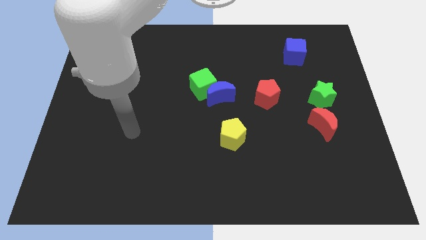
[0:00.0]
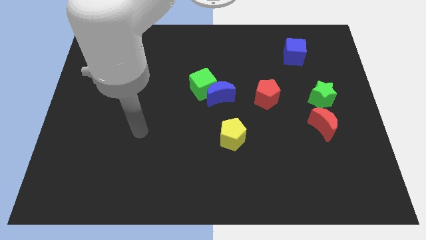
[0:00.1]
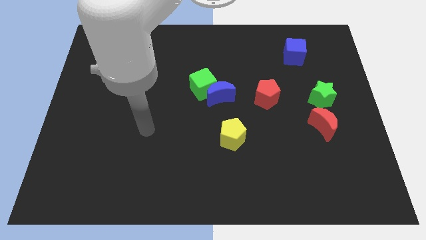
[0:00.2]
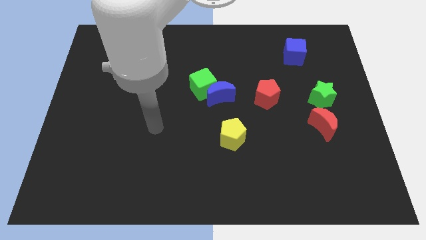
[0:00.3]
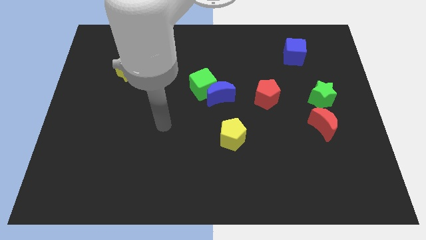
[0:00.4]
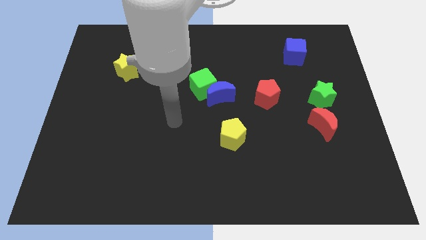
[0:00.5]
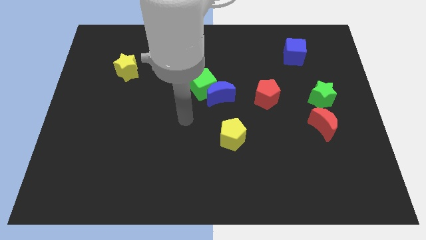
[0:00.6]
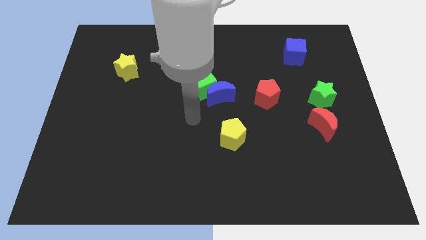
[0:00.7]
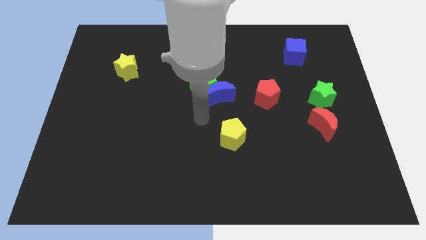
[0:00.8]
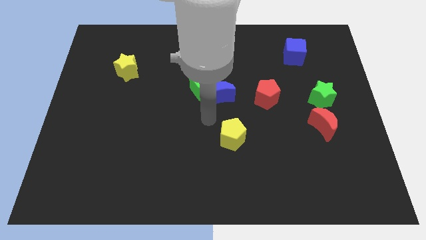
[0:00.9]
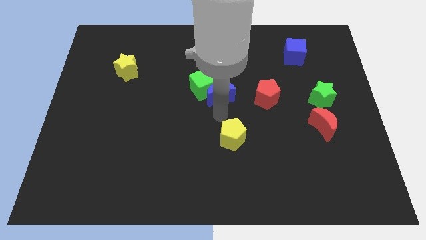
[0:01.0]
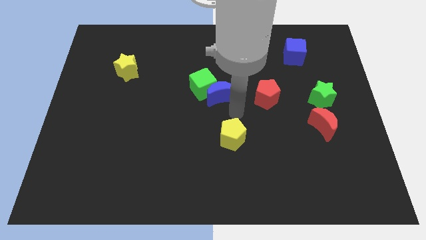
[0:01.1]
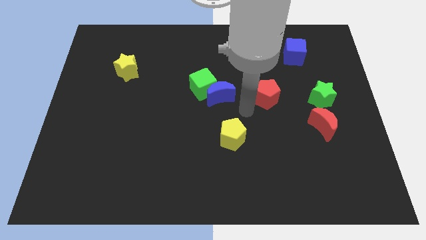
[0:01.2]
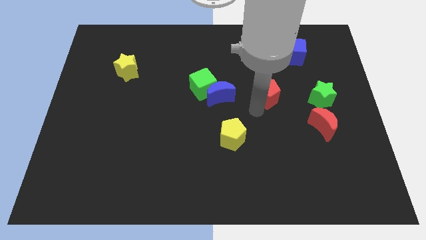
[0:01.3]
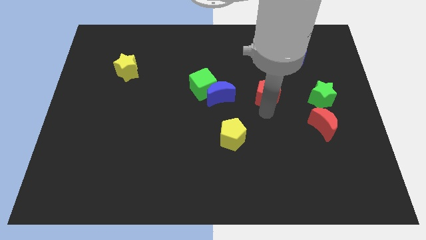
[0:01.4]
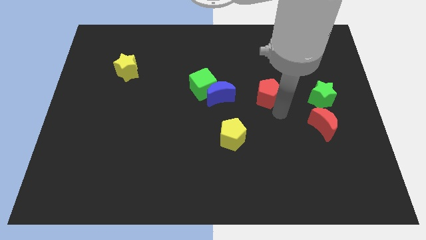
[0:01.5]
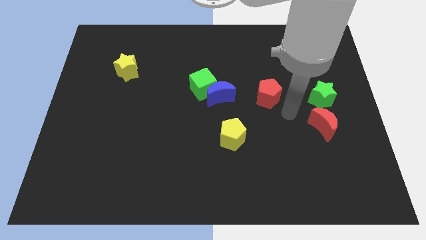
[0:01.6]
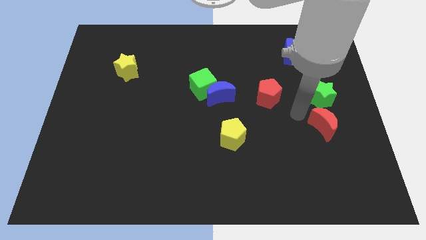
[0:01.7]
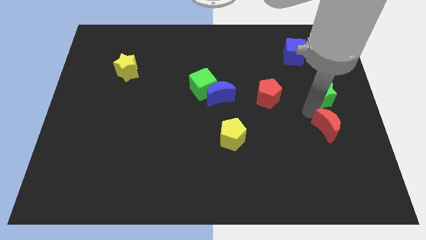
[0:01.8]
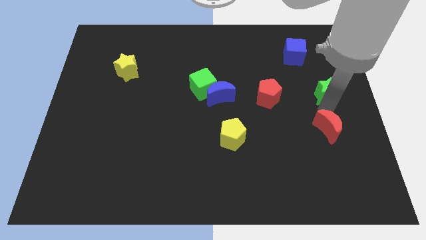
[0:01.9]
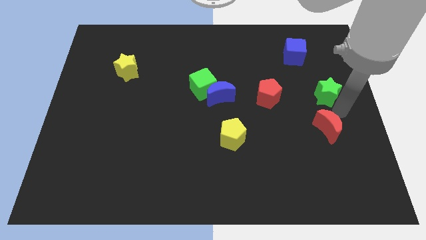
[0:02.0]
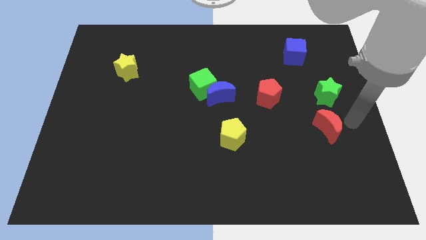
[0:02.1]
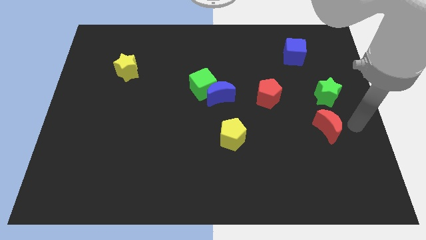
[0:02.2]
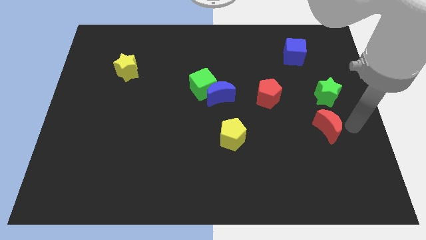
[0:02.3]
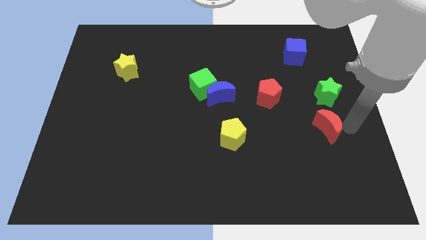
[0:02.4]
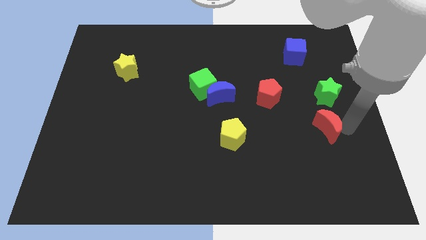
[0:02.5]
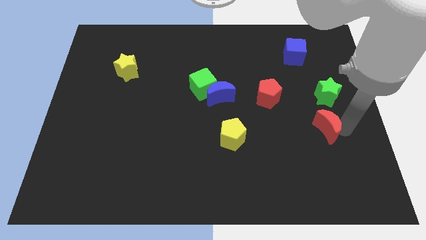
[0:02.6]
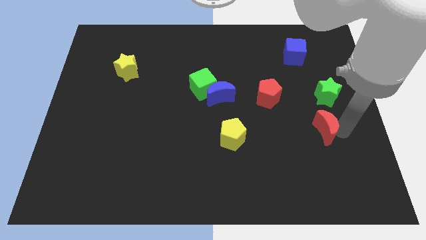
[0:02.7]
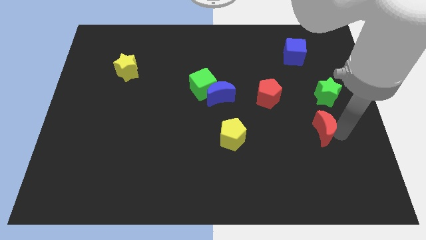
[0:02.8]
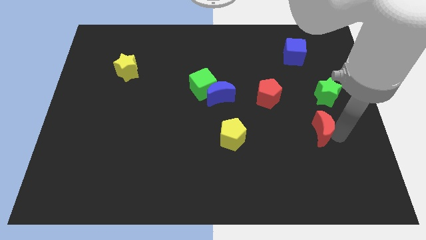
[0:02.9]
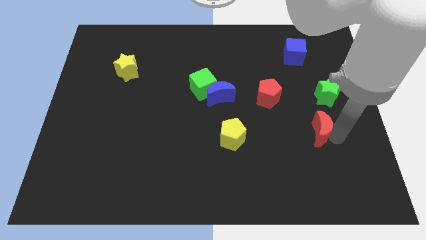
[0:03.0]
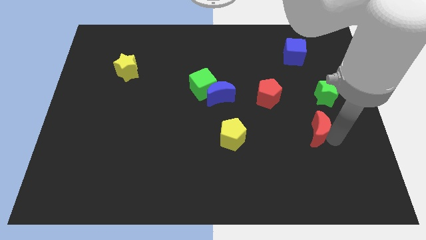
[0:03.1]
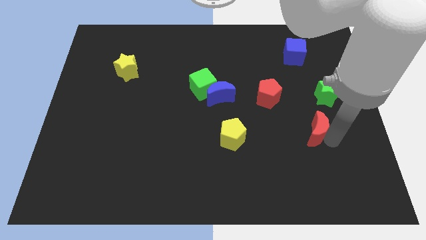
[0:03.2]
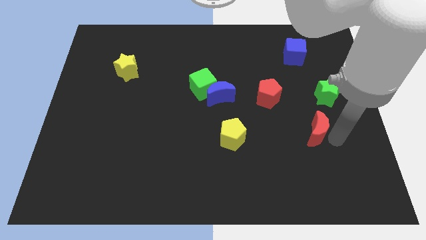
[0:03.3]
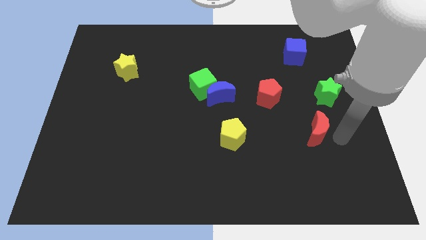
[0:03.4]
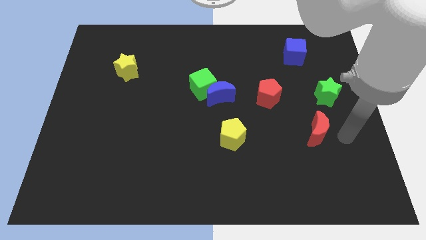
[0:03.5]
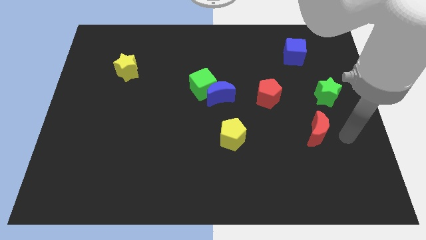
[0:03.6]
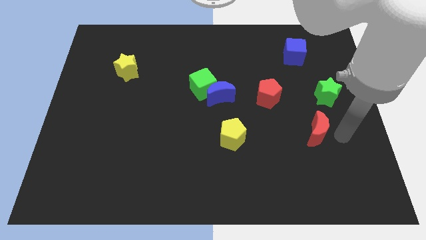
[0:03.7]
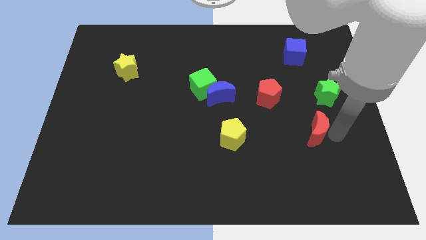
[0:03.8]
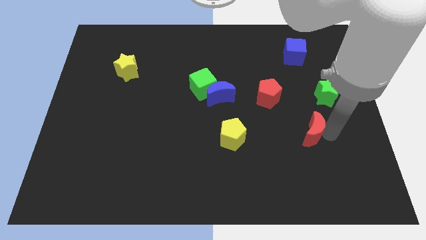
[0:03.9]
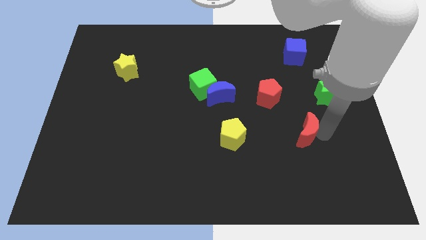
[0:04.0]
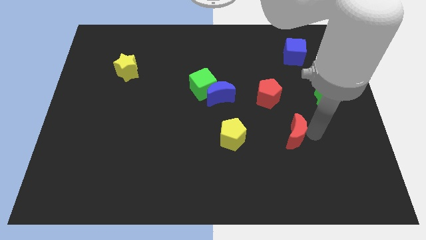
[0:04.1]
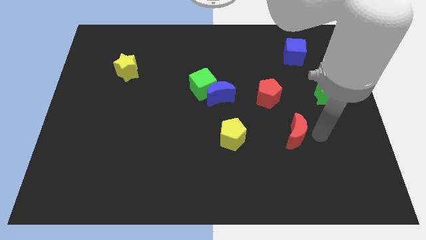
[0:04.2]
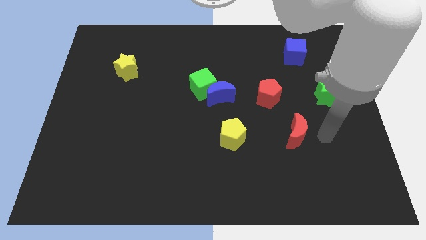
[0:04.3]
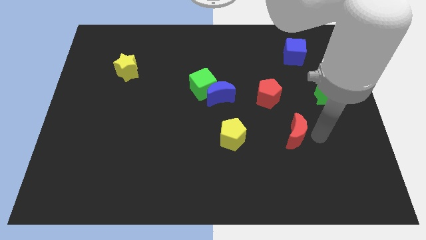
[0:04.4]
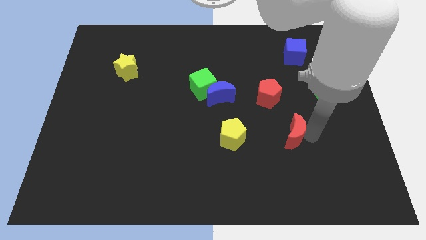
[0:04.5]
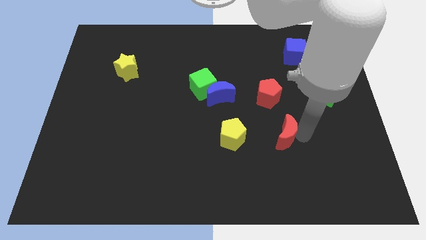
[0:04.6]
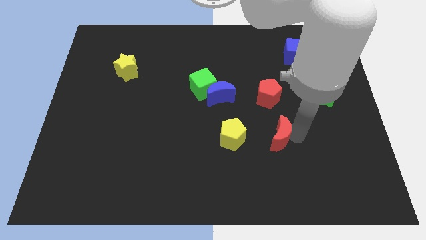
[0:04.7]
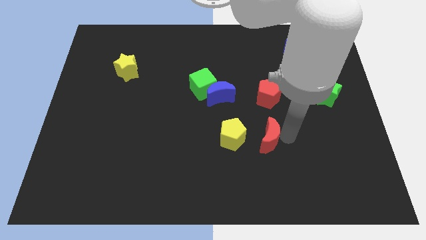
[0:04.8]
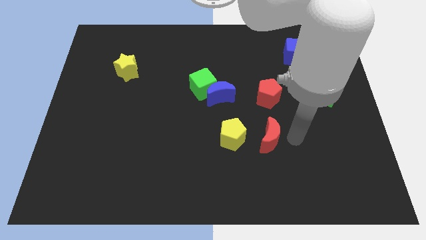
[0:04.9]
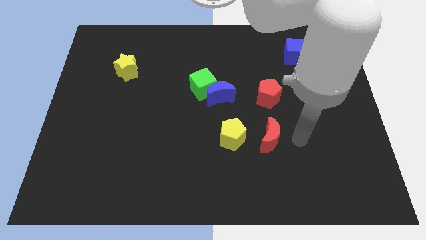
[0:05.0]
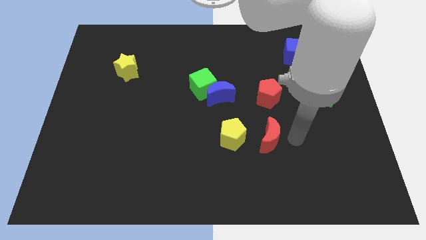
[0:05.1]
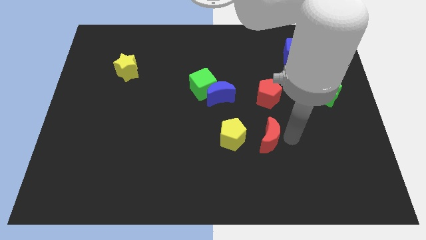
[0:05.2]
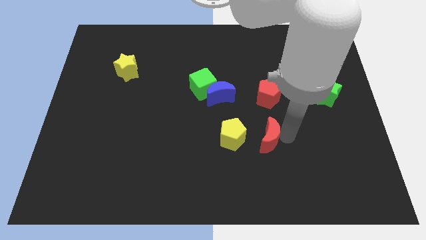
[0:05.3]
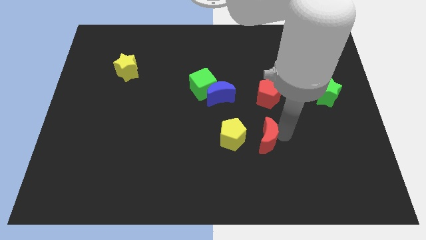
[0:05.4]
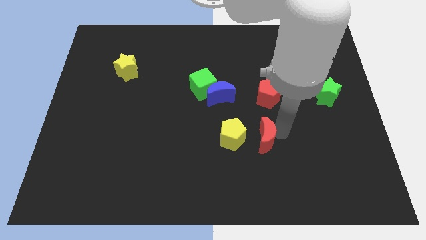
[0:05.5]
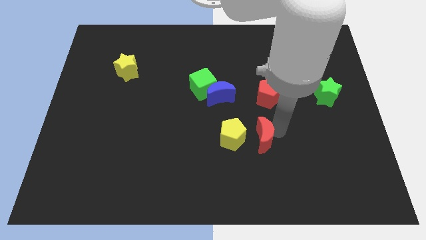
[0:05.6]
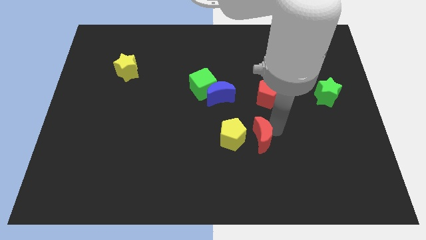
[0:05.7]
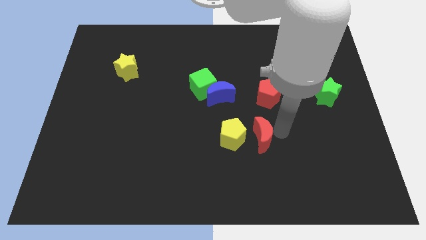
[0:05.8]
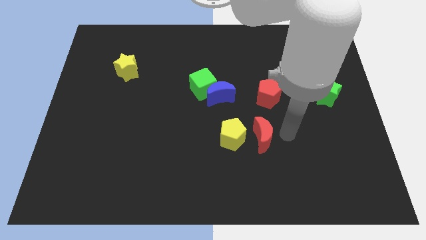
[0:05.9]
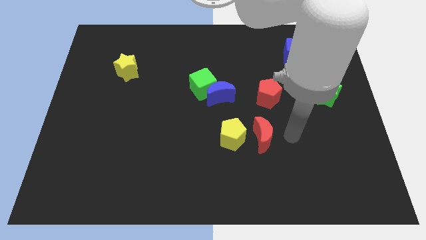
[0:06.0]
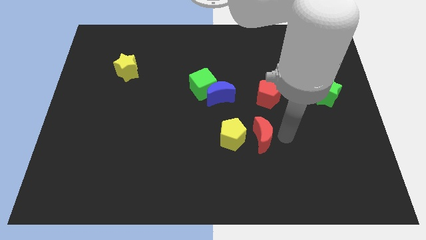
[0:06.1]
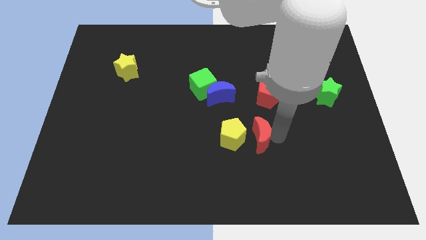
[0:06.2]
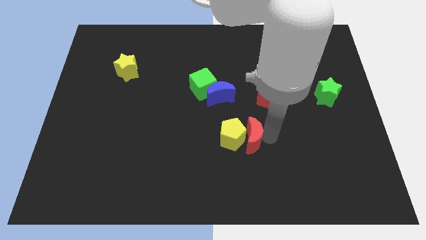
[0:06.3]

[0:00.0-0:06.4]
push the red moon towards the yellow pentagon
